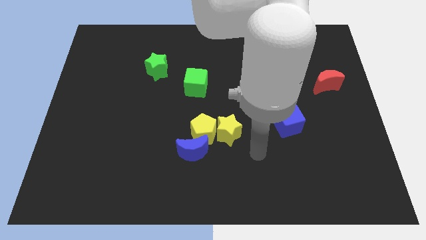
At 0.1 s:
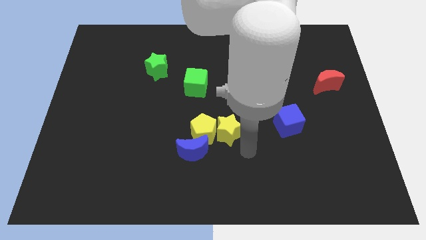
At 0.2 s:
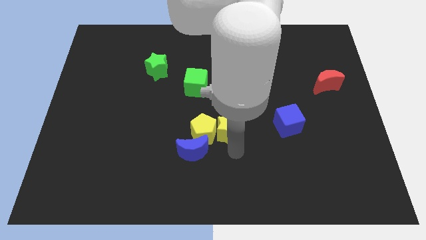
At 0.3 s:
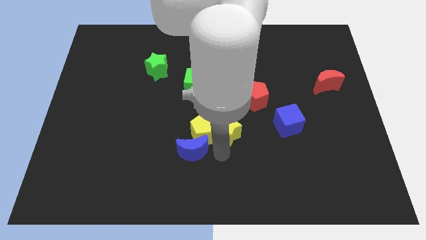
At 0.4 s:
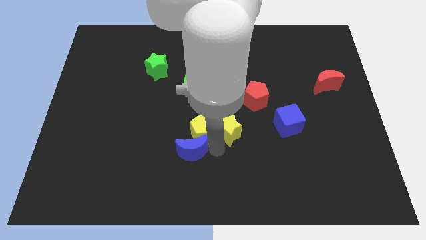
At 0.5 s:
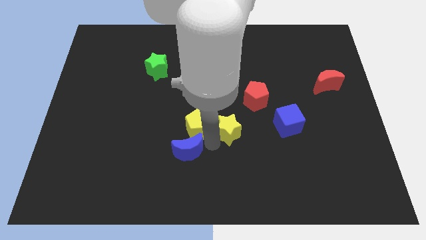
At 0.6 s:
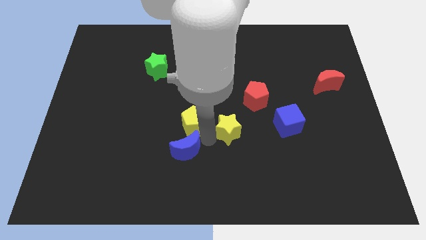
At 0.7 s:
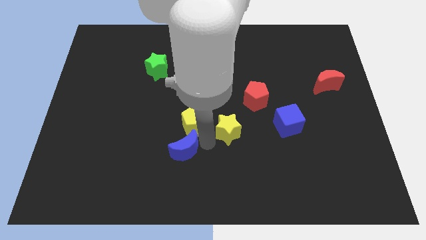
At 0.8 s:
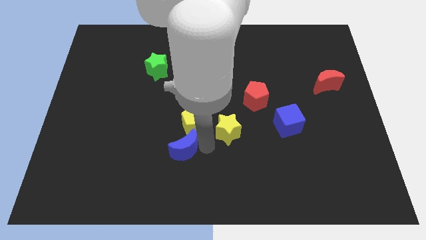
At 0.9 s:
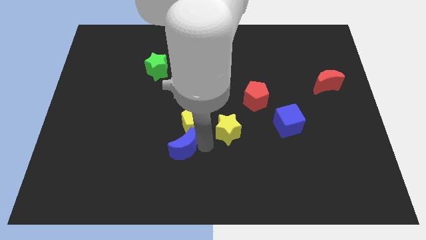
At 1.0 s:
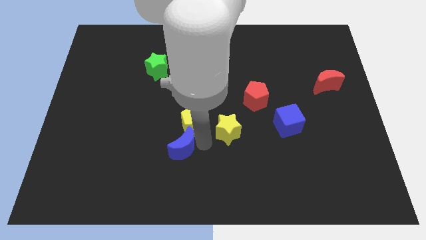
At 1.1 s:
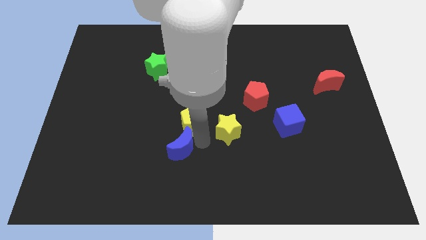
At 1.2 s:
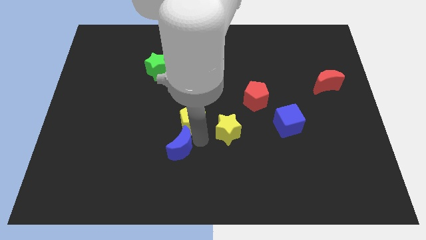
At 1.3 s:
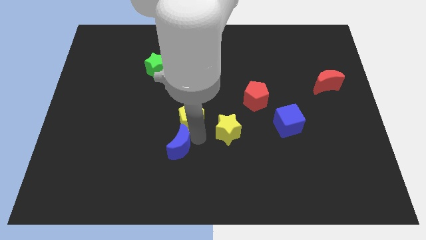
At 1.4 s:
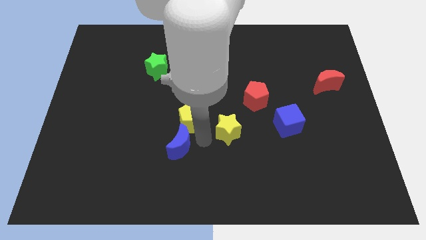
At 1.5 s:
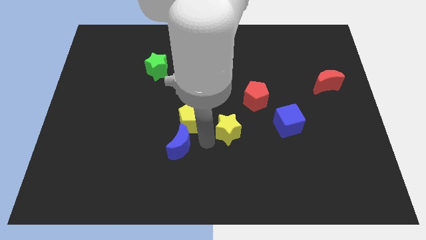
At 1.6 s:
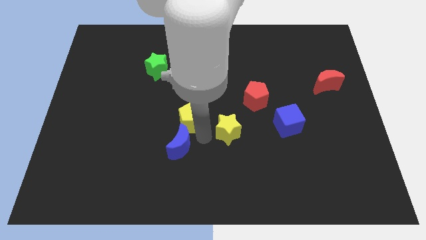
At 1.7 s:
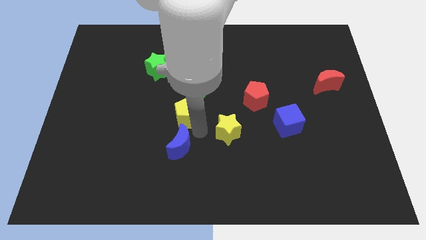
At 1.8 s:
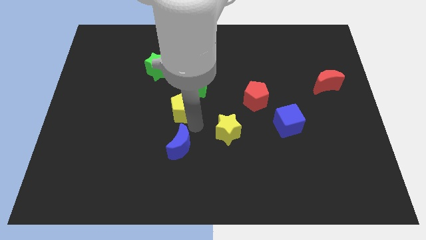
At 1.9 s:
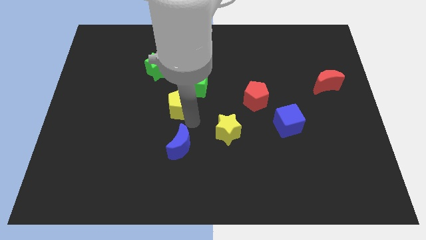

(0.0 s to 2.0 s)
separate the yellow pentagon from the yellow star and blue moon

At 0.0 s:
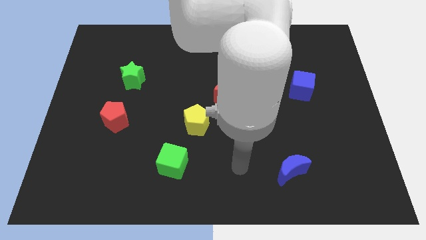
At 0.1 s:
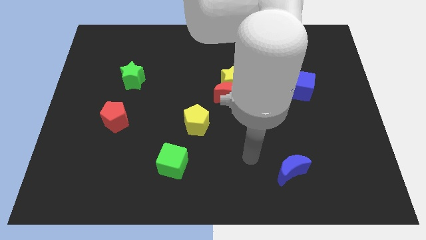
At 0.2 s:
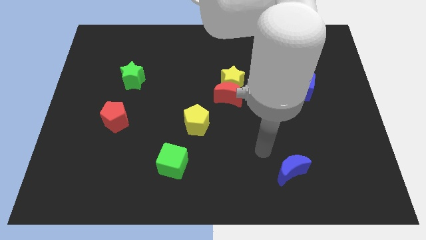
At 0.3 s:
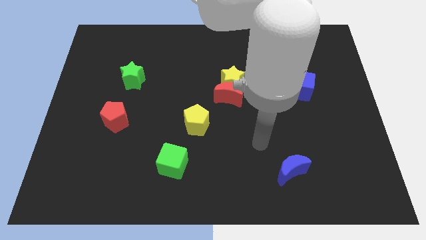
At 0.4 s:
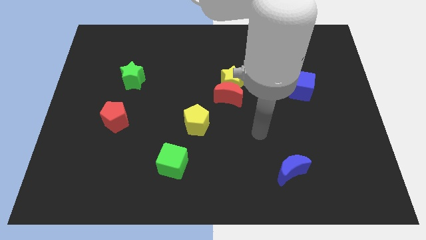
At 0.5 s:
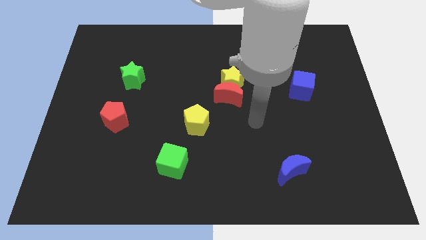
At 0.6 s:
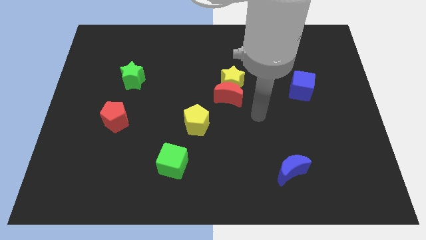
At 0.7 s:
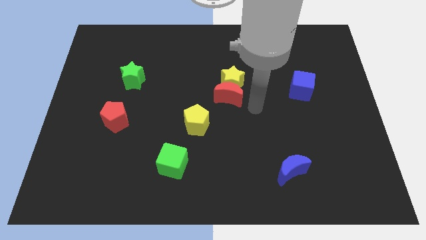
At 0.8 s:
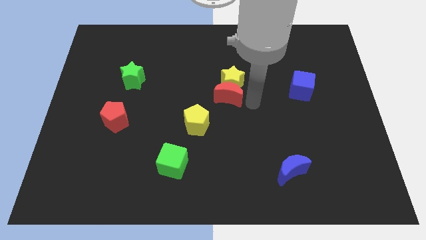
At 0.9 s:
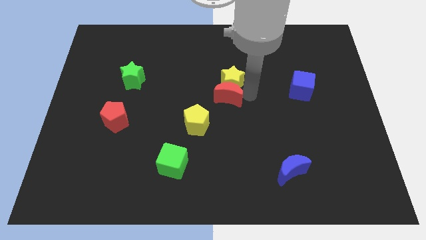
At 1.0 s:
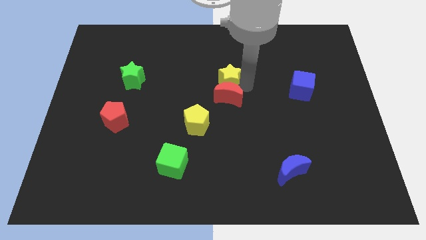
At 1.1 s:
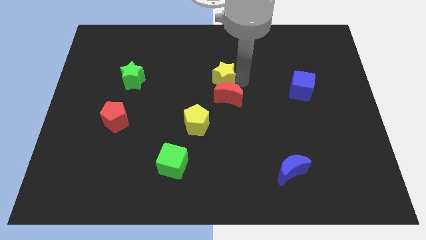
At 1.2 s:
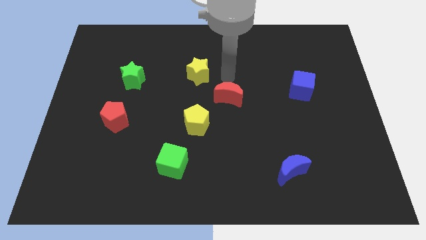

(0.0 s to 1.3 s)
separate the red moon from the yellow star

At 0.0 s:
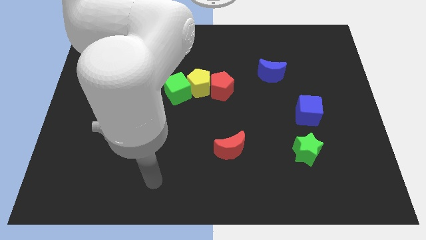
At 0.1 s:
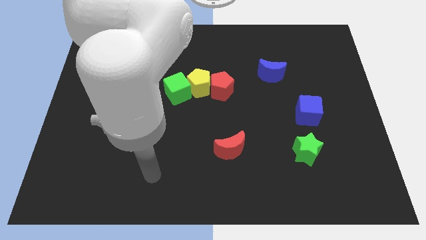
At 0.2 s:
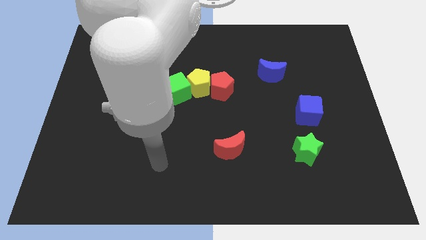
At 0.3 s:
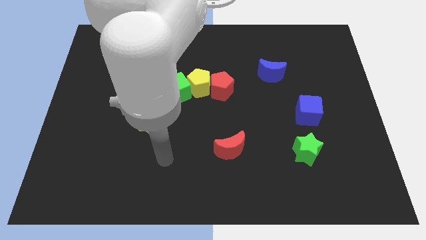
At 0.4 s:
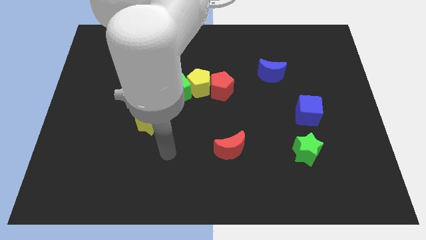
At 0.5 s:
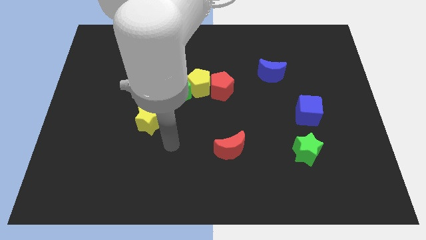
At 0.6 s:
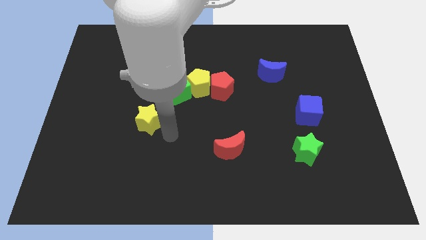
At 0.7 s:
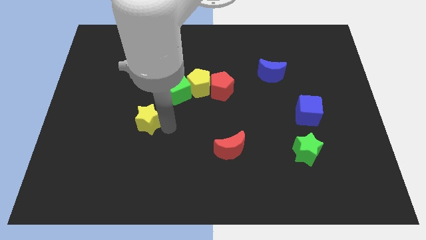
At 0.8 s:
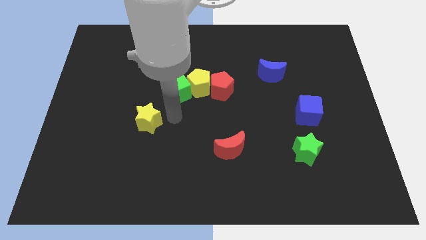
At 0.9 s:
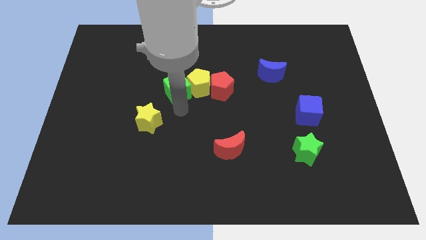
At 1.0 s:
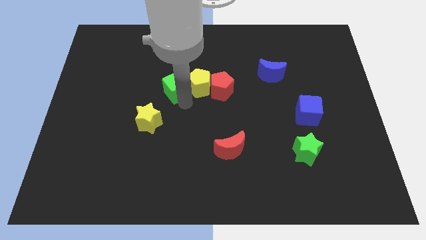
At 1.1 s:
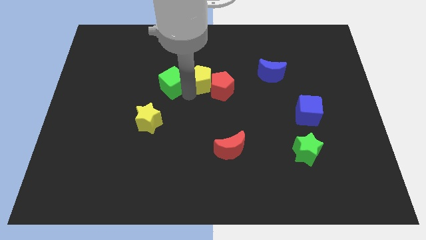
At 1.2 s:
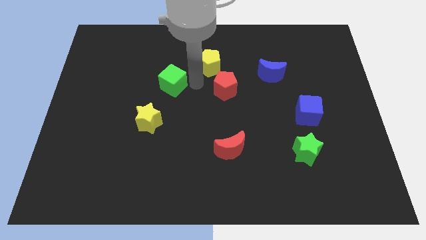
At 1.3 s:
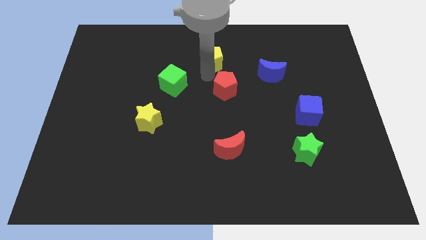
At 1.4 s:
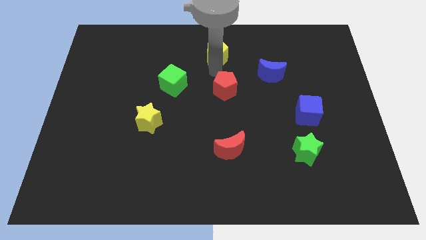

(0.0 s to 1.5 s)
separate the red pentagon from the yellow pentagon

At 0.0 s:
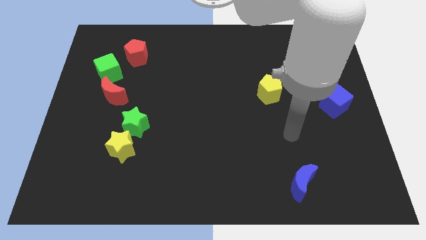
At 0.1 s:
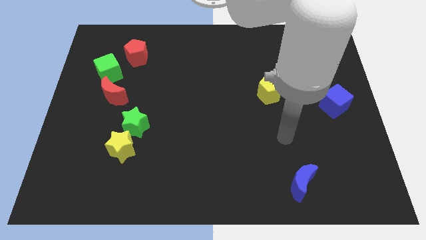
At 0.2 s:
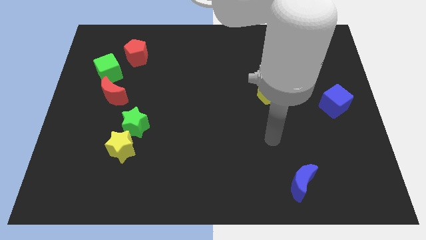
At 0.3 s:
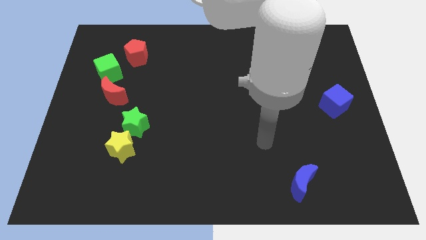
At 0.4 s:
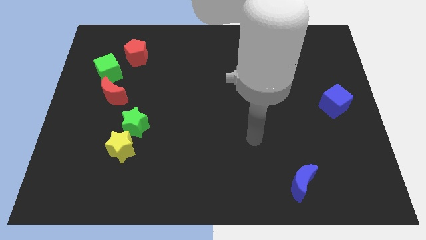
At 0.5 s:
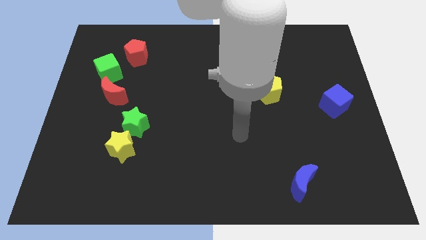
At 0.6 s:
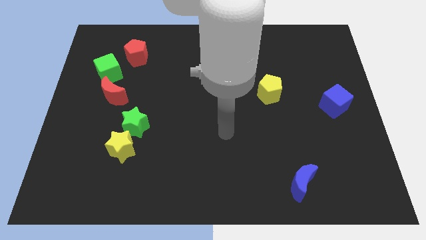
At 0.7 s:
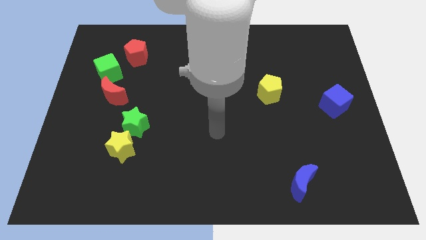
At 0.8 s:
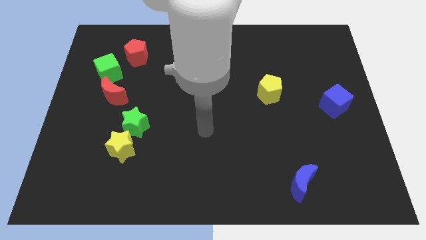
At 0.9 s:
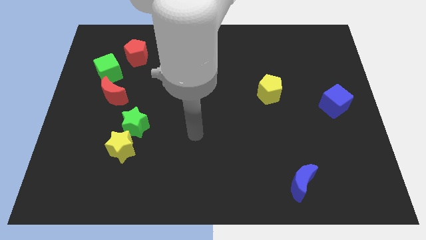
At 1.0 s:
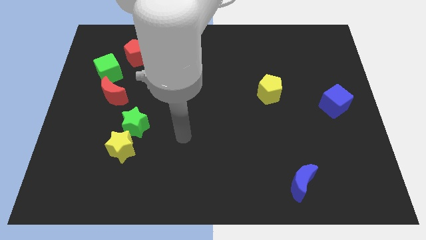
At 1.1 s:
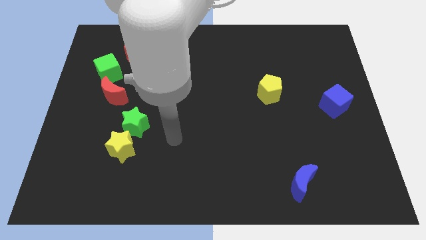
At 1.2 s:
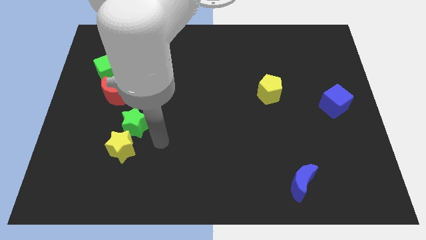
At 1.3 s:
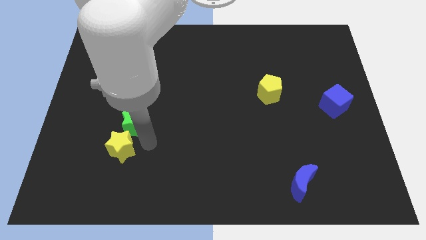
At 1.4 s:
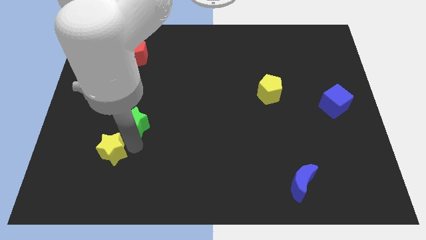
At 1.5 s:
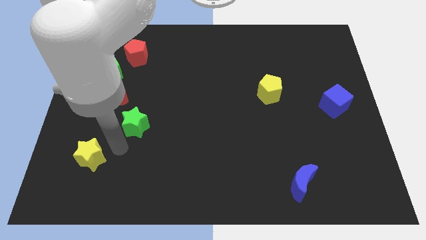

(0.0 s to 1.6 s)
separate the green star from the yellow star

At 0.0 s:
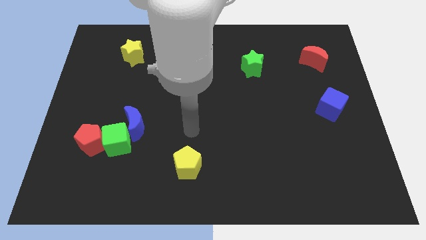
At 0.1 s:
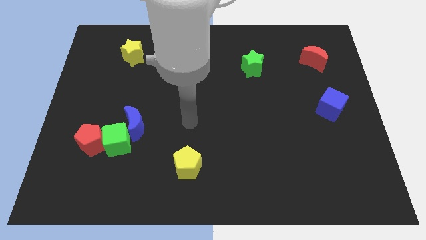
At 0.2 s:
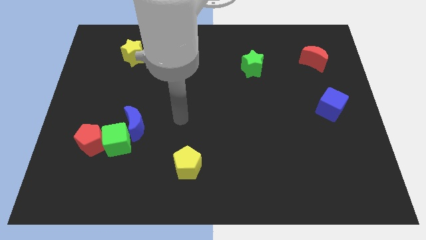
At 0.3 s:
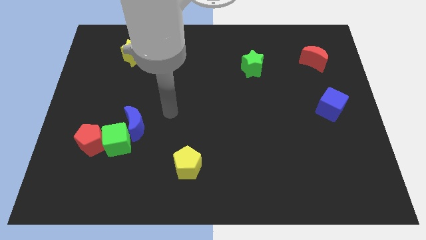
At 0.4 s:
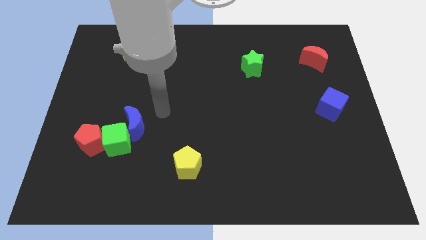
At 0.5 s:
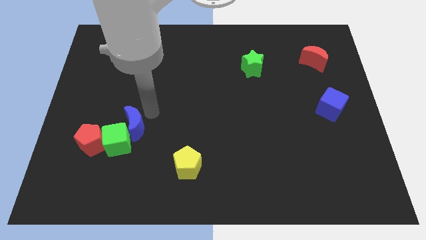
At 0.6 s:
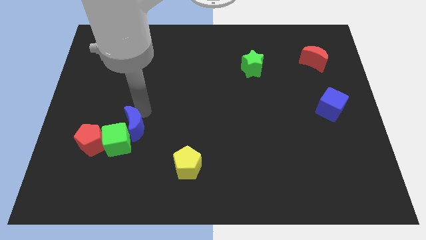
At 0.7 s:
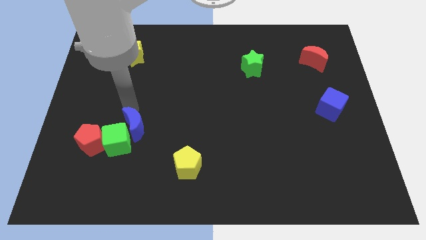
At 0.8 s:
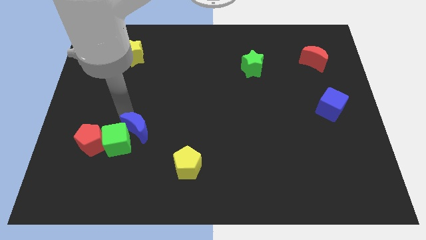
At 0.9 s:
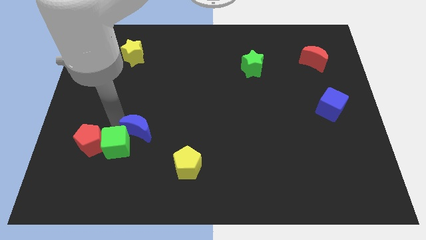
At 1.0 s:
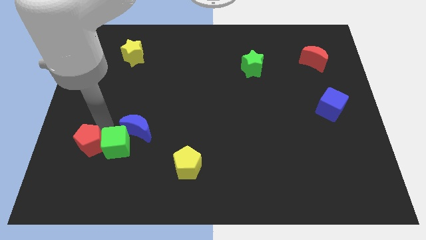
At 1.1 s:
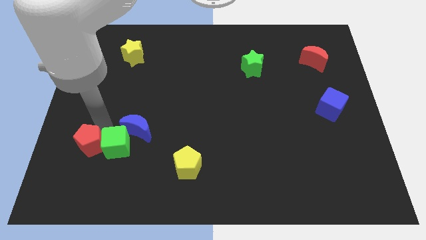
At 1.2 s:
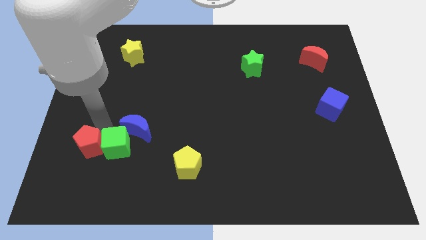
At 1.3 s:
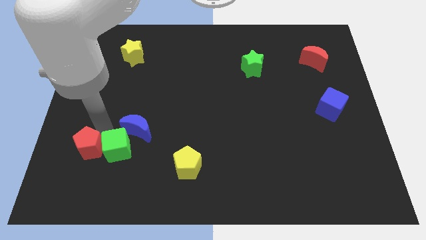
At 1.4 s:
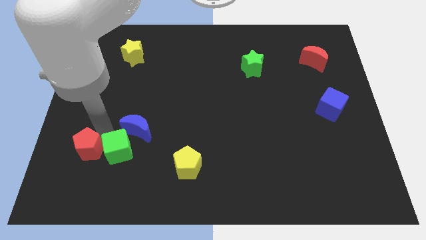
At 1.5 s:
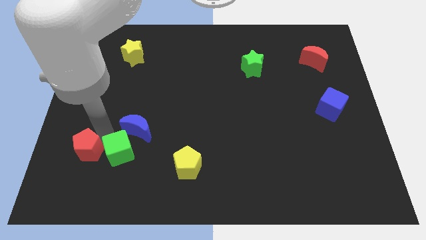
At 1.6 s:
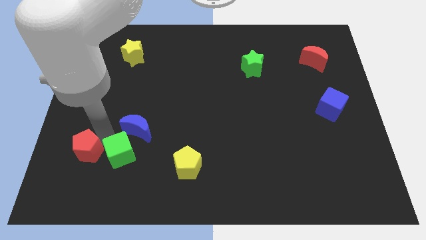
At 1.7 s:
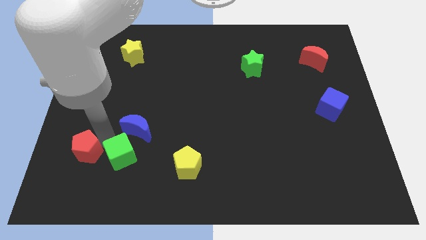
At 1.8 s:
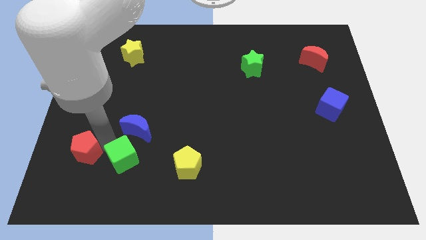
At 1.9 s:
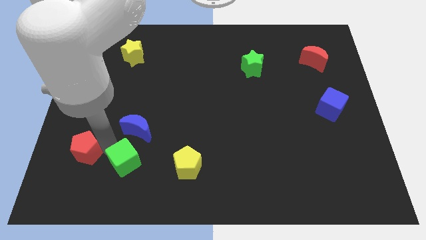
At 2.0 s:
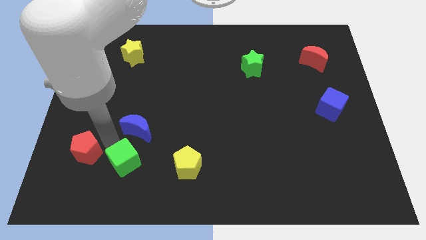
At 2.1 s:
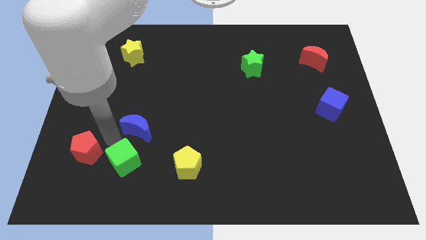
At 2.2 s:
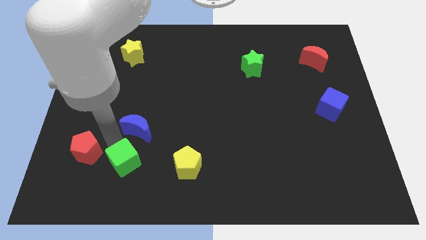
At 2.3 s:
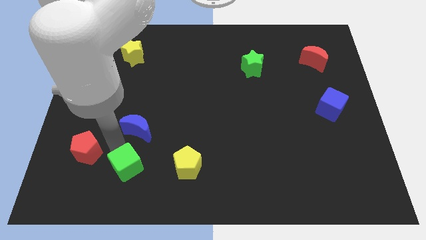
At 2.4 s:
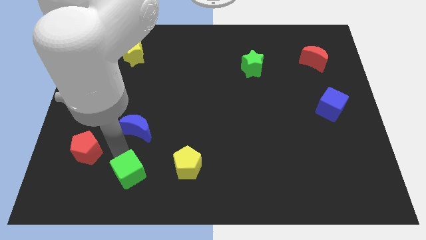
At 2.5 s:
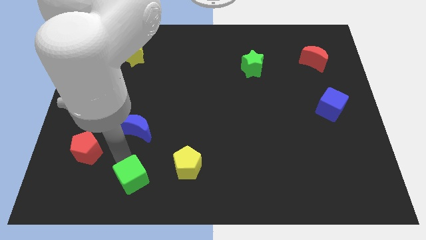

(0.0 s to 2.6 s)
pull the green cube apart from the red pentagon and blue moon

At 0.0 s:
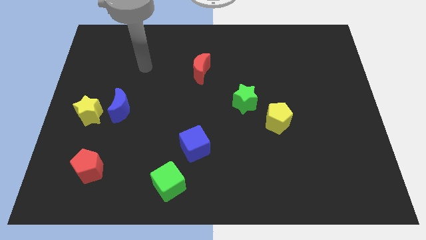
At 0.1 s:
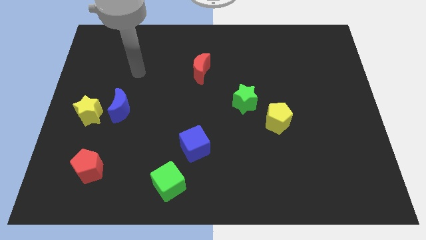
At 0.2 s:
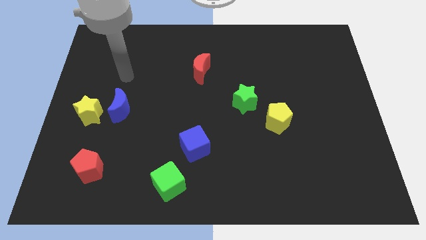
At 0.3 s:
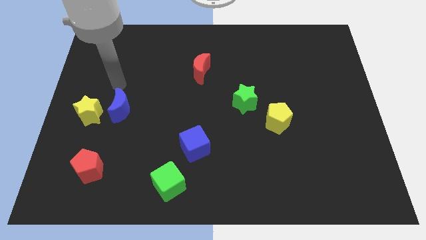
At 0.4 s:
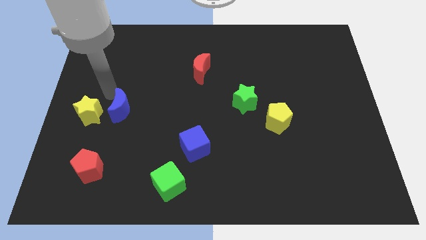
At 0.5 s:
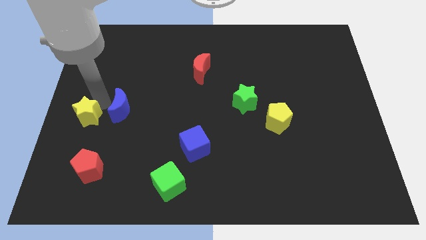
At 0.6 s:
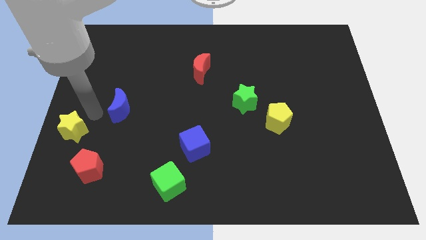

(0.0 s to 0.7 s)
separate the blue moon from the yellow star
